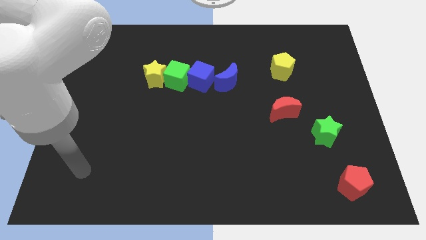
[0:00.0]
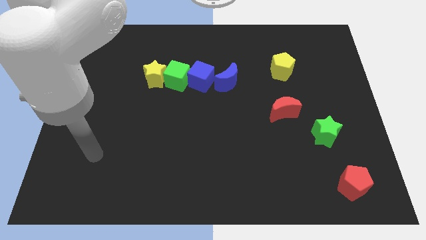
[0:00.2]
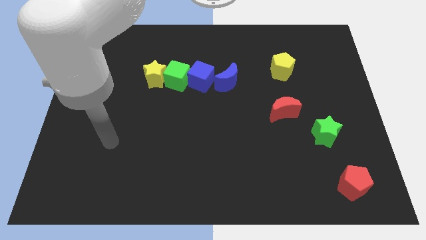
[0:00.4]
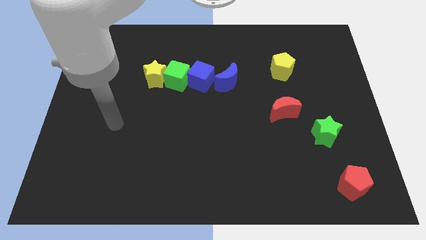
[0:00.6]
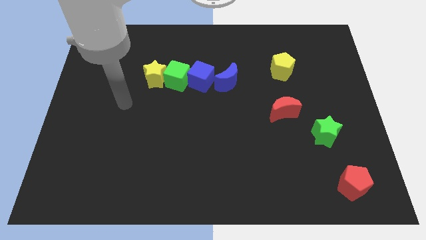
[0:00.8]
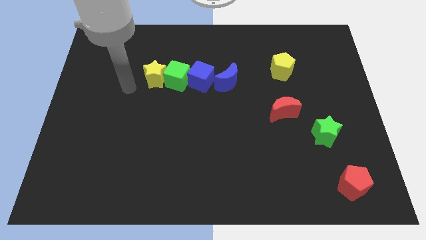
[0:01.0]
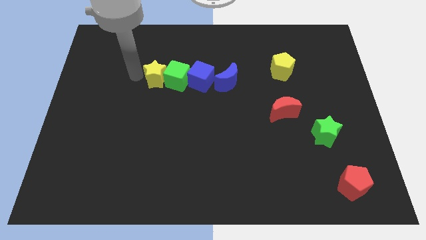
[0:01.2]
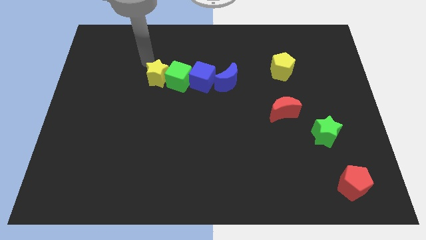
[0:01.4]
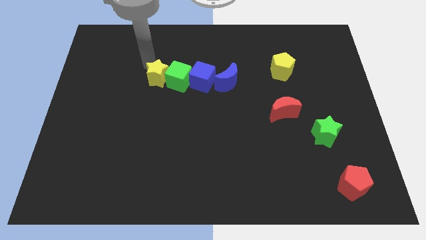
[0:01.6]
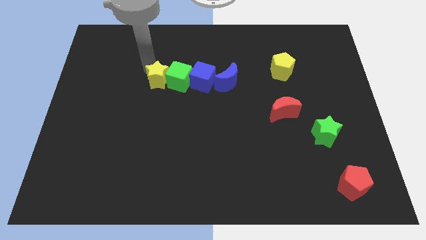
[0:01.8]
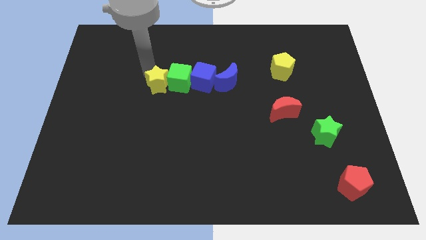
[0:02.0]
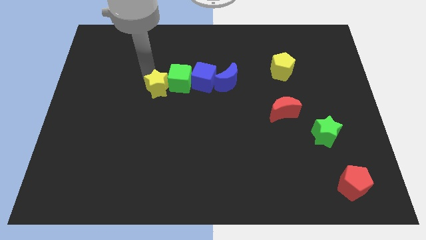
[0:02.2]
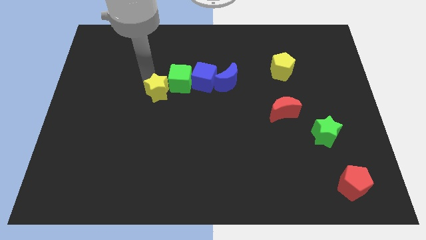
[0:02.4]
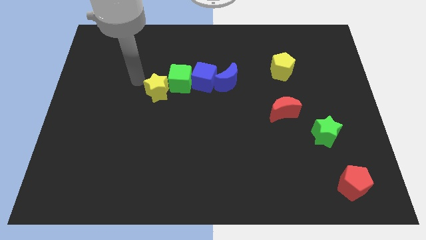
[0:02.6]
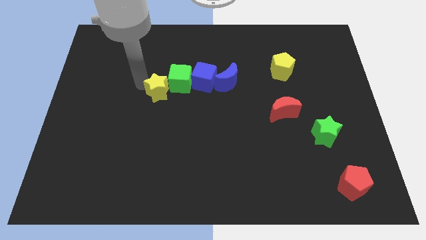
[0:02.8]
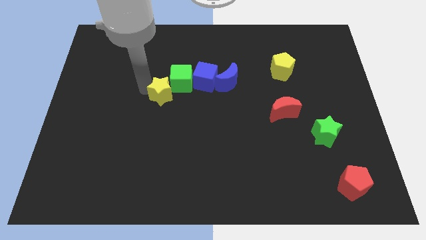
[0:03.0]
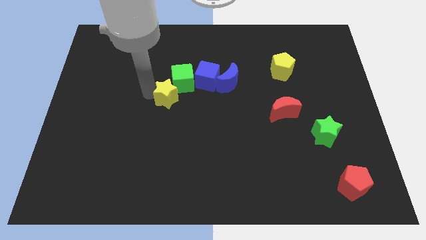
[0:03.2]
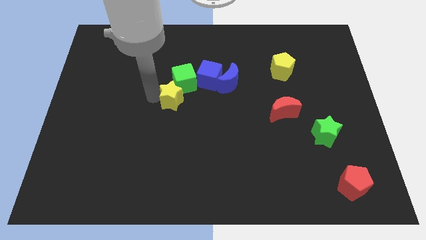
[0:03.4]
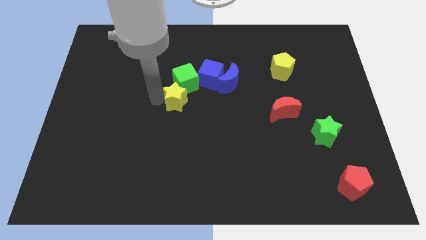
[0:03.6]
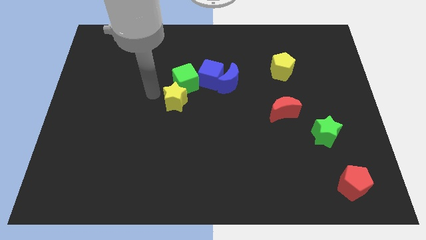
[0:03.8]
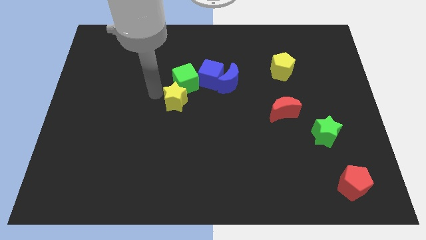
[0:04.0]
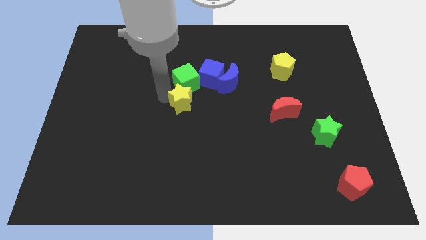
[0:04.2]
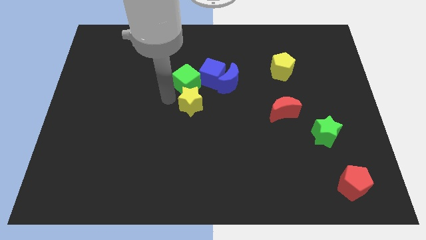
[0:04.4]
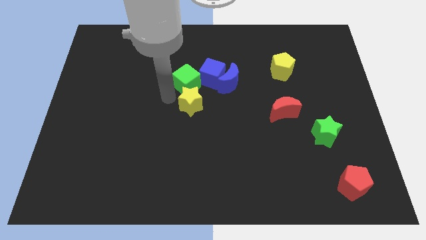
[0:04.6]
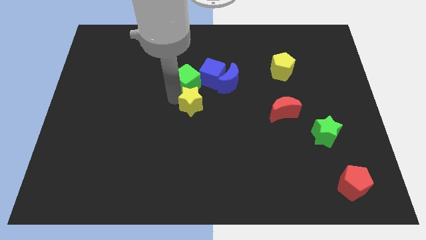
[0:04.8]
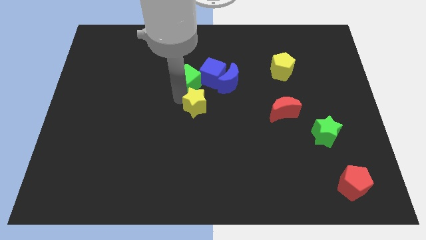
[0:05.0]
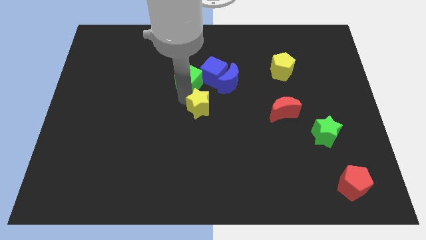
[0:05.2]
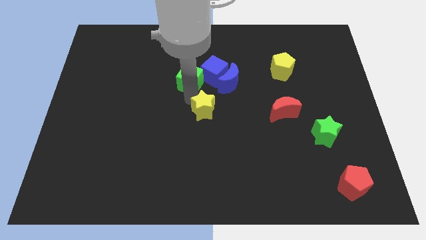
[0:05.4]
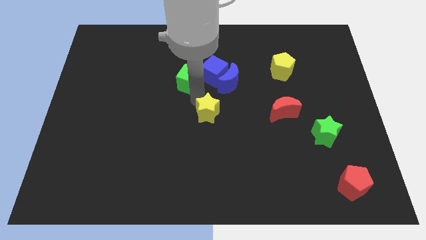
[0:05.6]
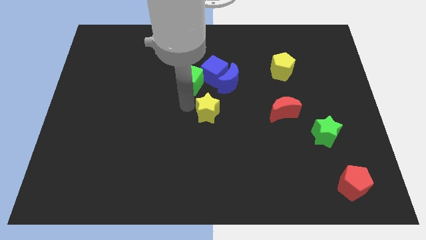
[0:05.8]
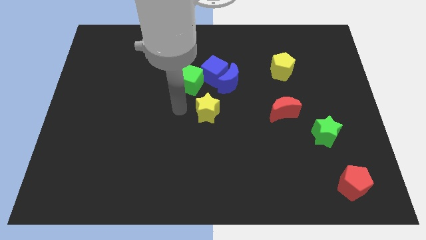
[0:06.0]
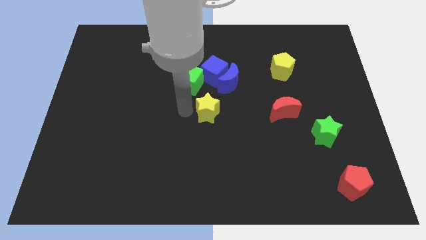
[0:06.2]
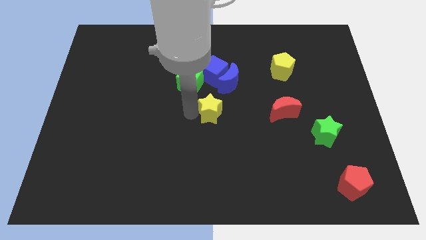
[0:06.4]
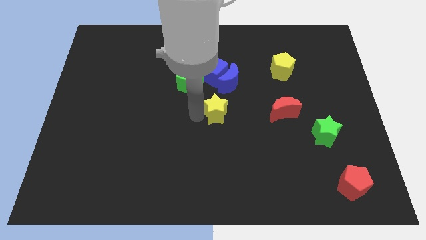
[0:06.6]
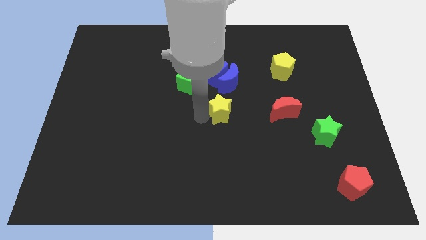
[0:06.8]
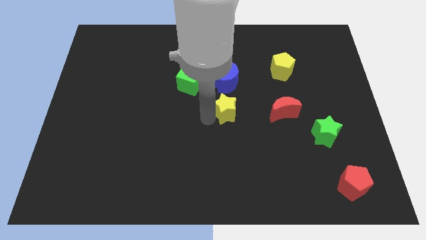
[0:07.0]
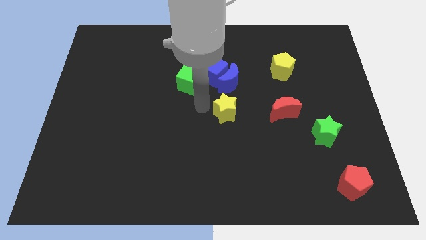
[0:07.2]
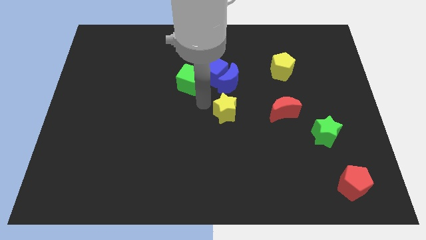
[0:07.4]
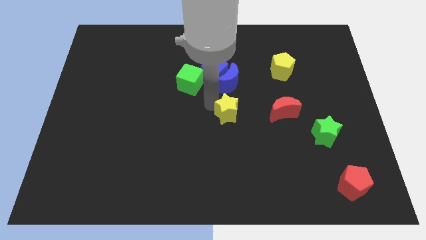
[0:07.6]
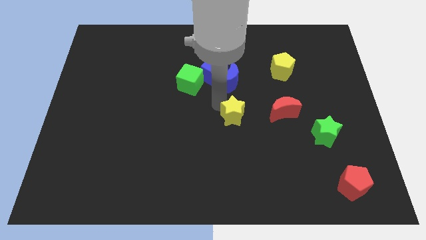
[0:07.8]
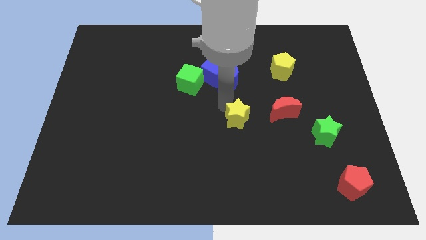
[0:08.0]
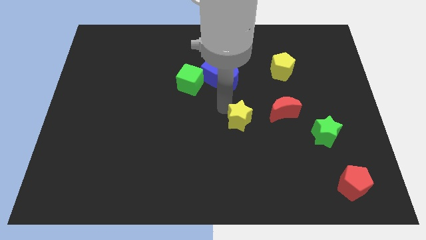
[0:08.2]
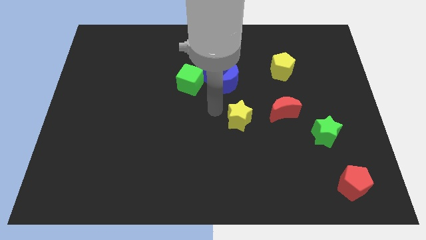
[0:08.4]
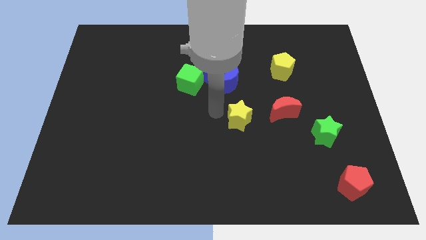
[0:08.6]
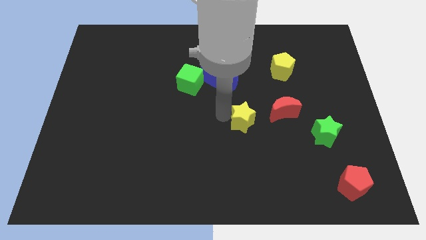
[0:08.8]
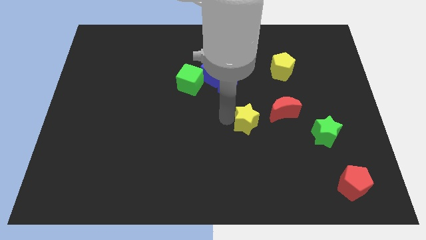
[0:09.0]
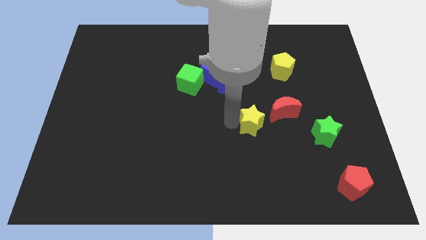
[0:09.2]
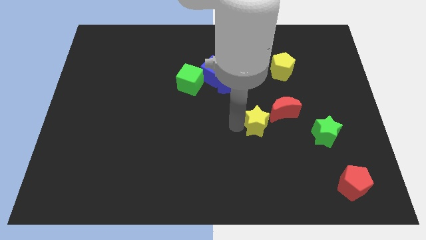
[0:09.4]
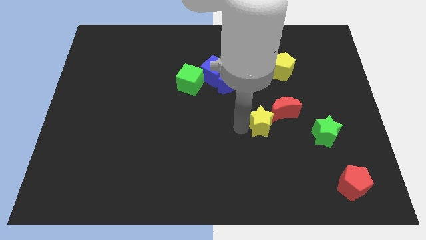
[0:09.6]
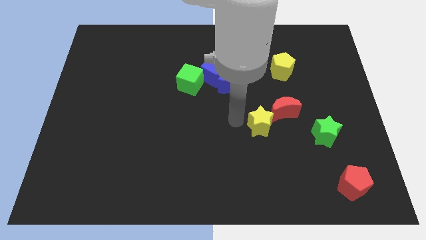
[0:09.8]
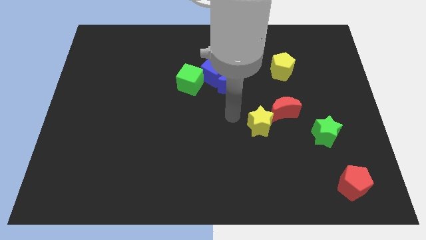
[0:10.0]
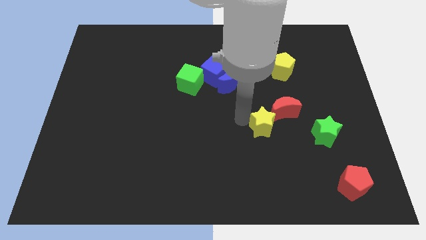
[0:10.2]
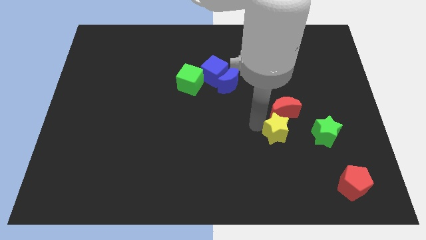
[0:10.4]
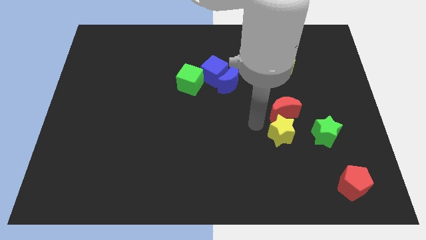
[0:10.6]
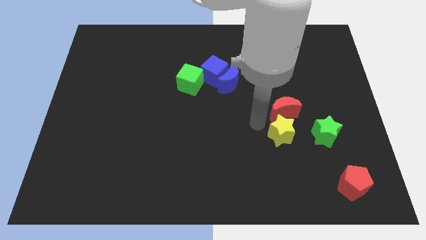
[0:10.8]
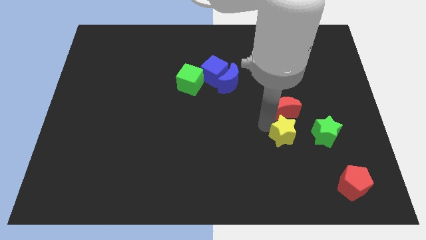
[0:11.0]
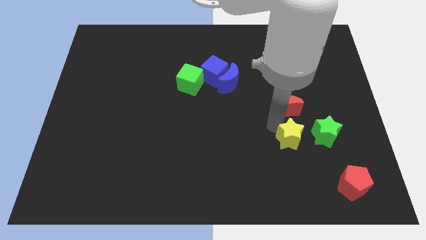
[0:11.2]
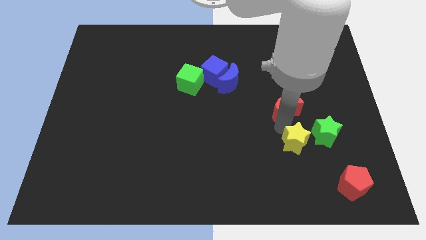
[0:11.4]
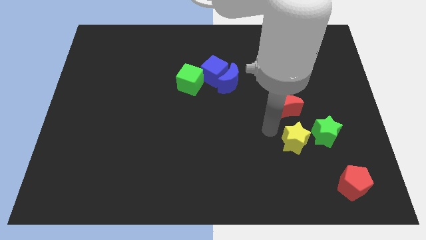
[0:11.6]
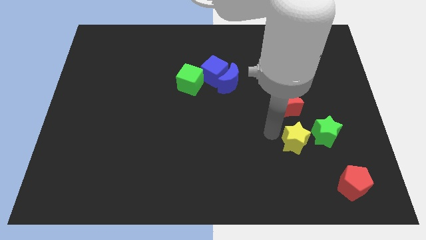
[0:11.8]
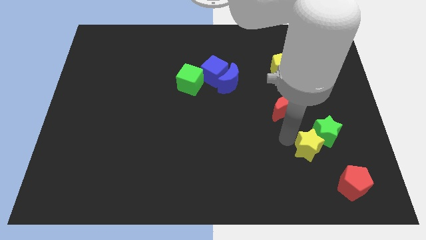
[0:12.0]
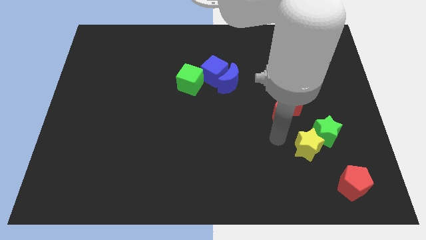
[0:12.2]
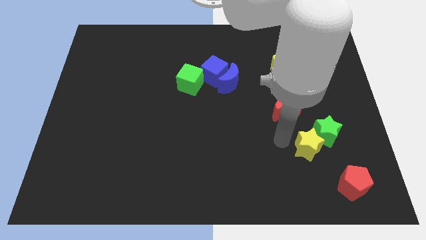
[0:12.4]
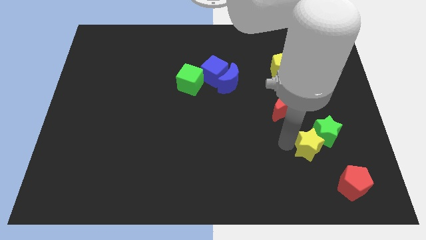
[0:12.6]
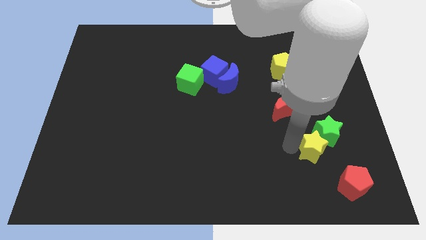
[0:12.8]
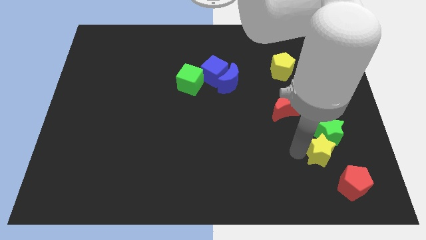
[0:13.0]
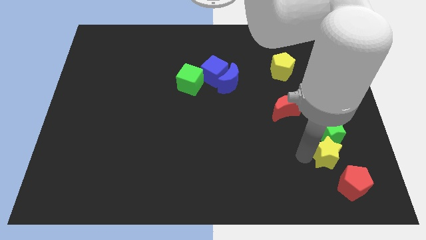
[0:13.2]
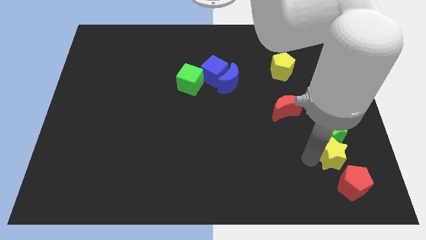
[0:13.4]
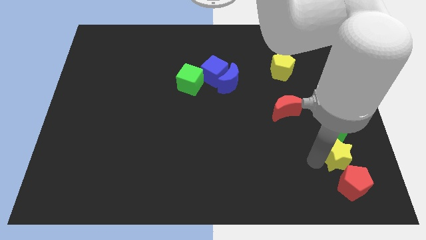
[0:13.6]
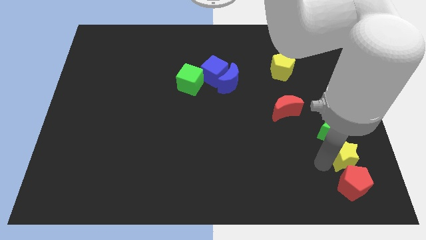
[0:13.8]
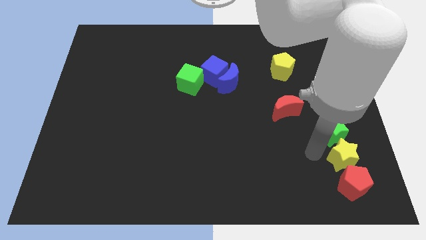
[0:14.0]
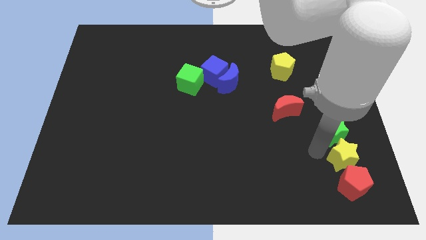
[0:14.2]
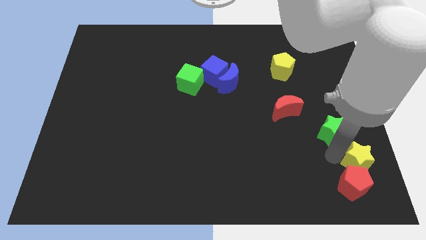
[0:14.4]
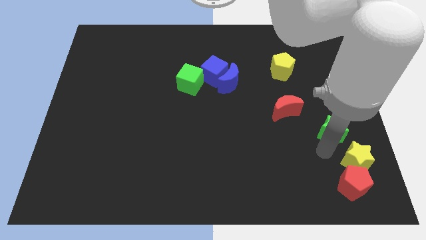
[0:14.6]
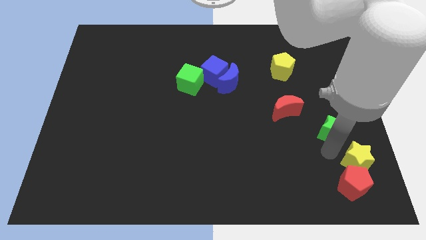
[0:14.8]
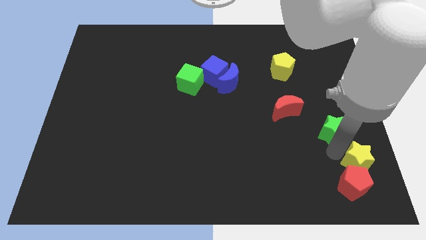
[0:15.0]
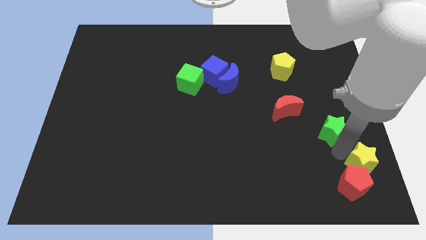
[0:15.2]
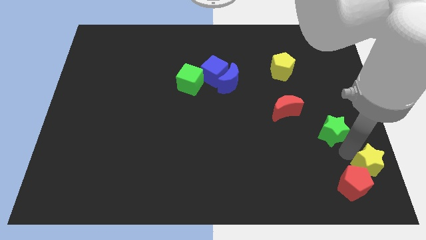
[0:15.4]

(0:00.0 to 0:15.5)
push the yellow star to the bottom right of the board
